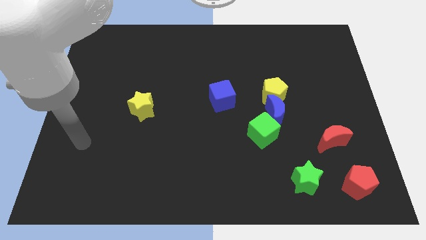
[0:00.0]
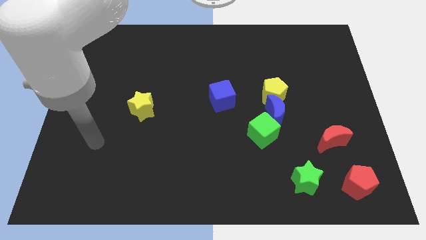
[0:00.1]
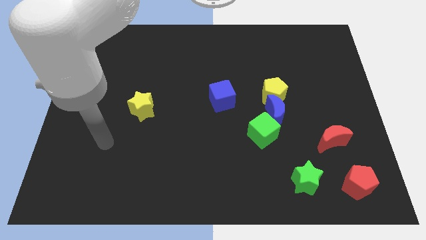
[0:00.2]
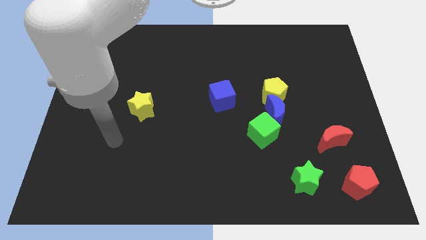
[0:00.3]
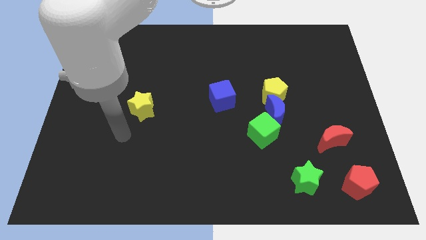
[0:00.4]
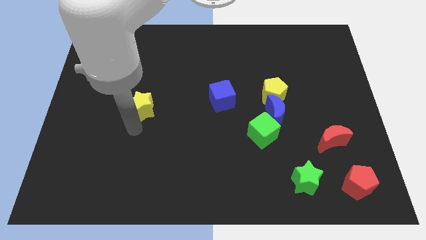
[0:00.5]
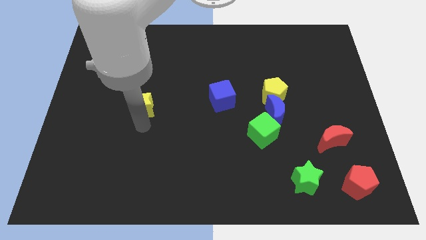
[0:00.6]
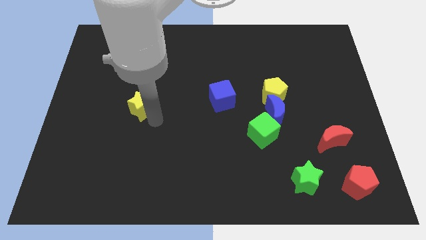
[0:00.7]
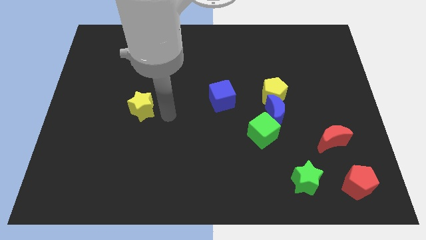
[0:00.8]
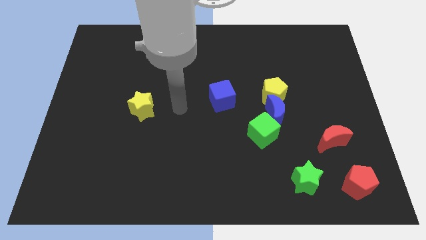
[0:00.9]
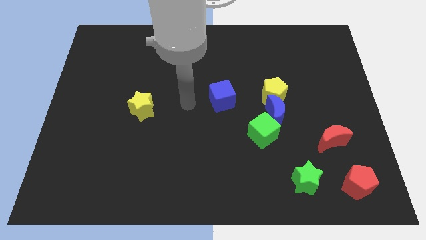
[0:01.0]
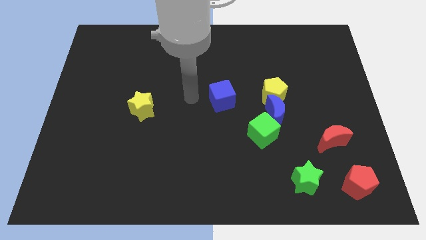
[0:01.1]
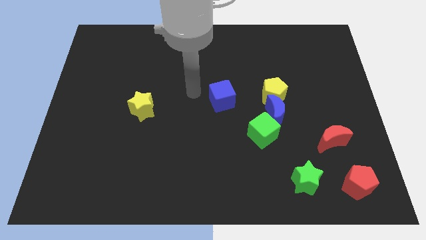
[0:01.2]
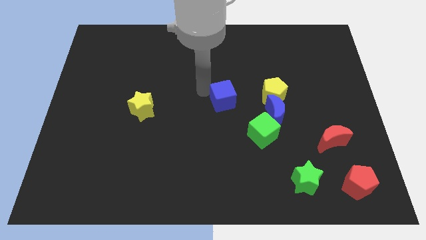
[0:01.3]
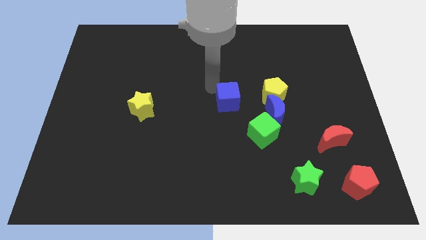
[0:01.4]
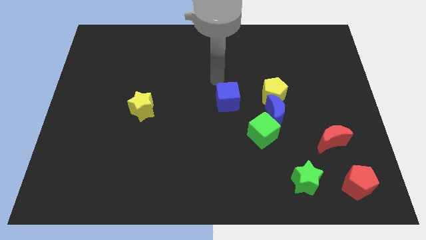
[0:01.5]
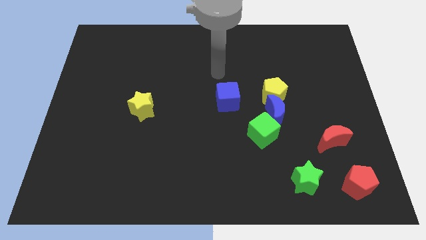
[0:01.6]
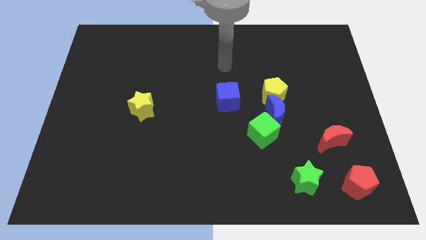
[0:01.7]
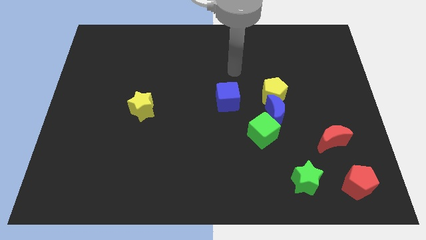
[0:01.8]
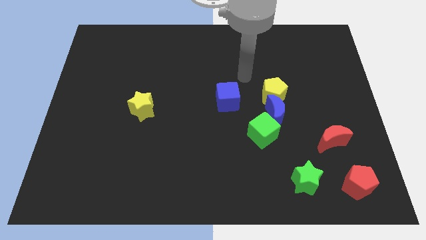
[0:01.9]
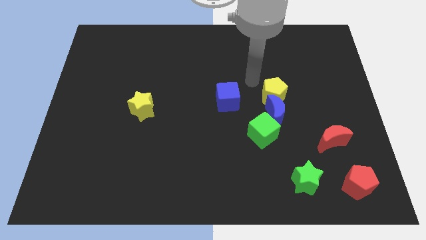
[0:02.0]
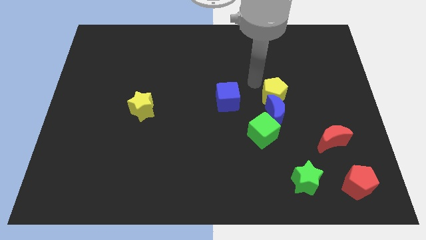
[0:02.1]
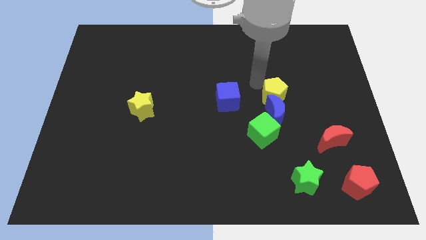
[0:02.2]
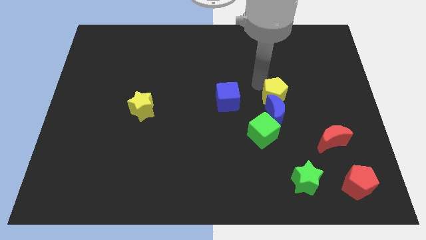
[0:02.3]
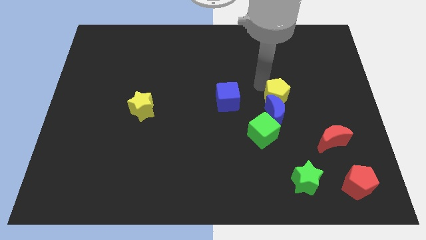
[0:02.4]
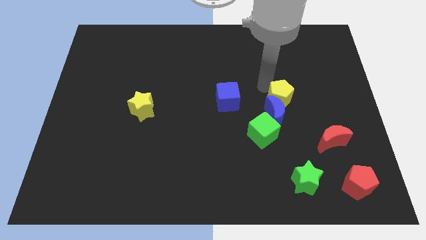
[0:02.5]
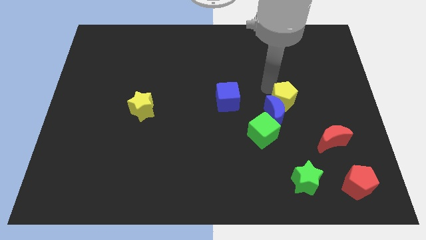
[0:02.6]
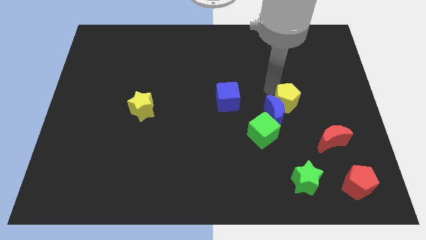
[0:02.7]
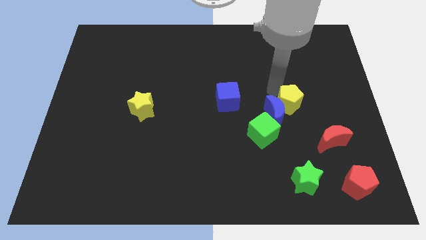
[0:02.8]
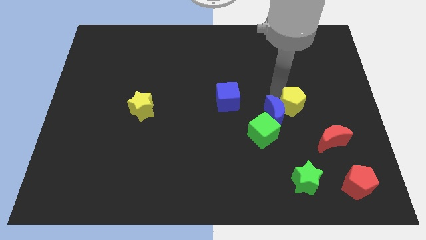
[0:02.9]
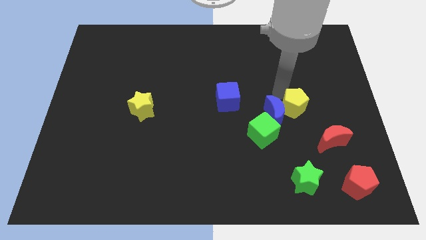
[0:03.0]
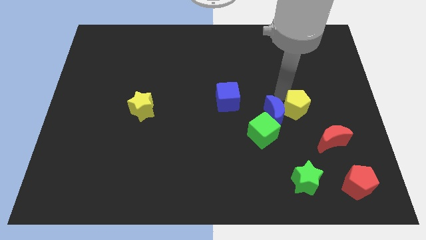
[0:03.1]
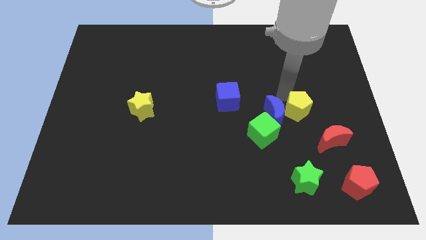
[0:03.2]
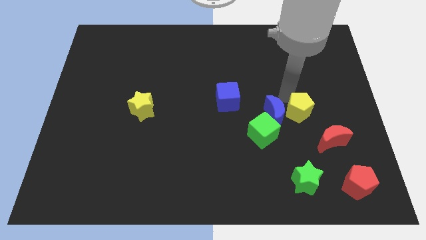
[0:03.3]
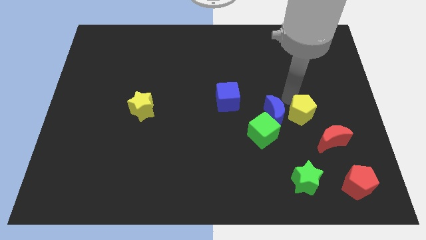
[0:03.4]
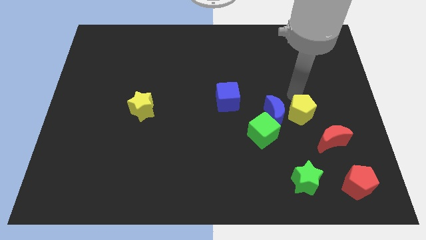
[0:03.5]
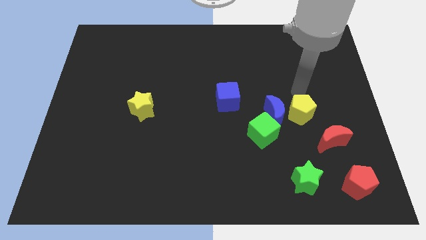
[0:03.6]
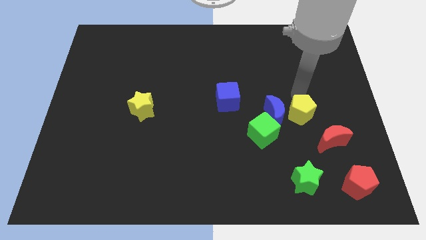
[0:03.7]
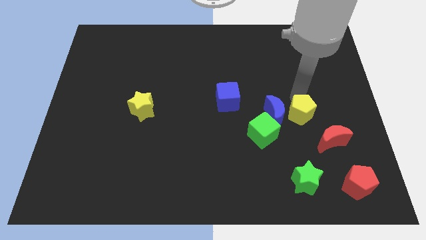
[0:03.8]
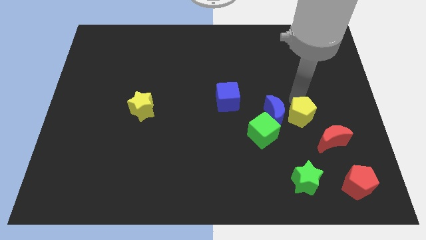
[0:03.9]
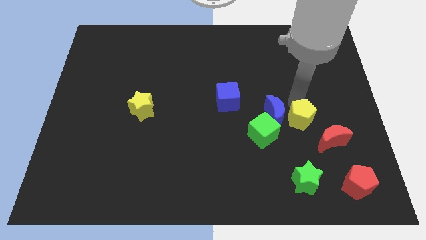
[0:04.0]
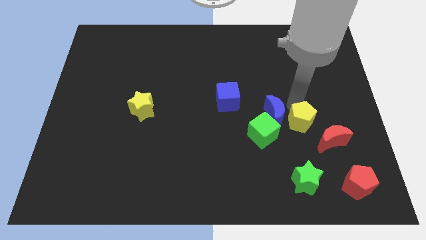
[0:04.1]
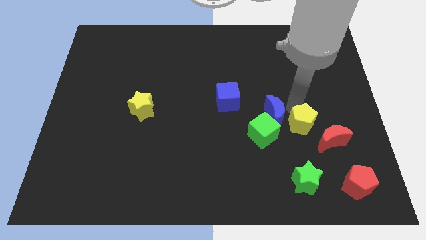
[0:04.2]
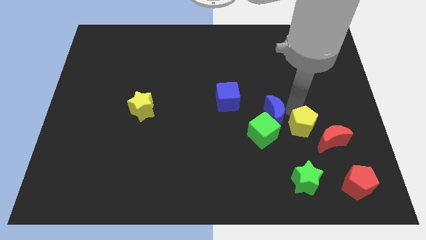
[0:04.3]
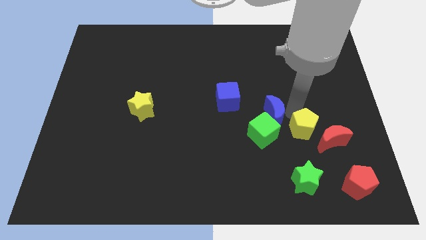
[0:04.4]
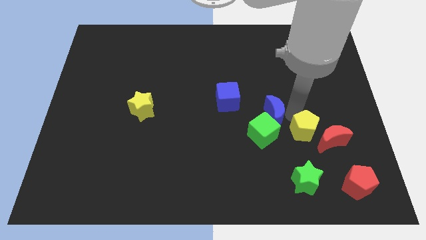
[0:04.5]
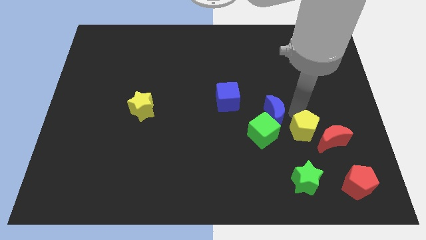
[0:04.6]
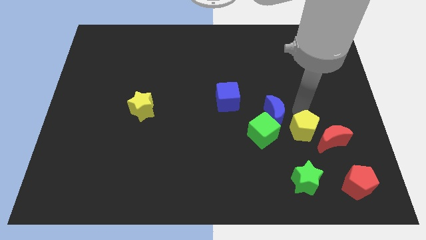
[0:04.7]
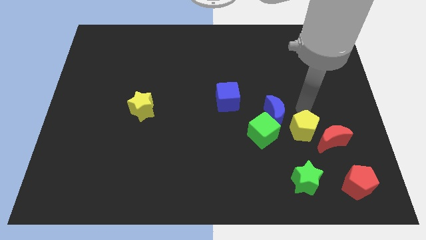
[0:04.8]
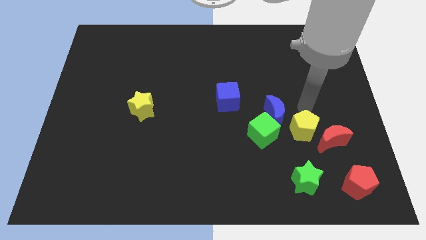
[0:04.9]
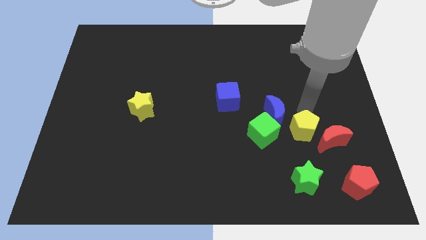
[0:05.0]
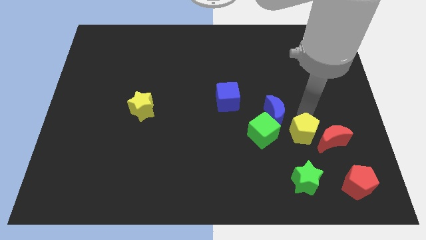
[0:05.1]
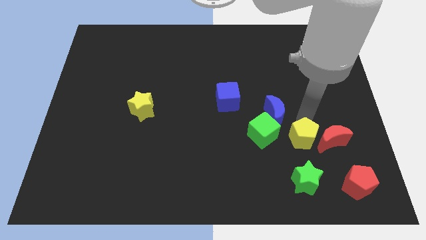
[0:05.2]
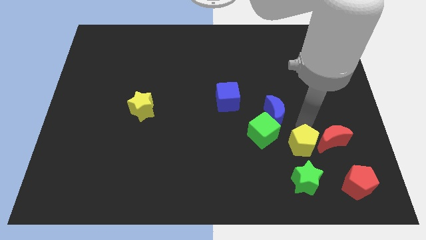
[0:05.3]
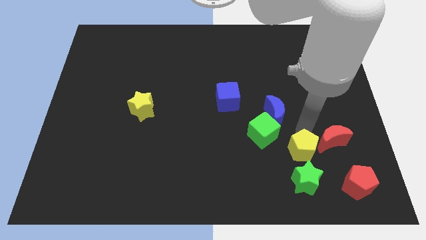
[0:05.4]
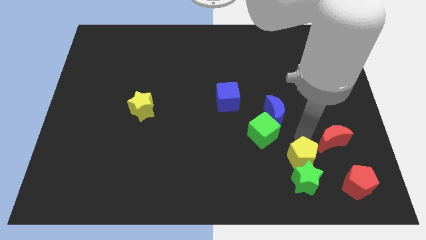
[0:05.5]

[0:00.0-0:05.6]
put the yellow pentagon close to the green star

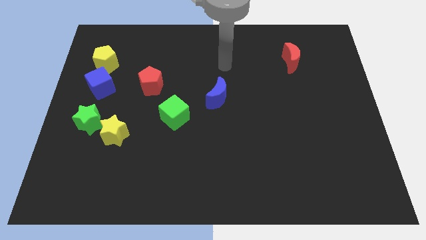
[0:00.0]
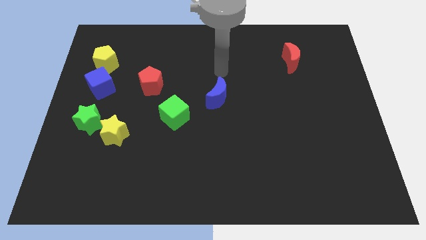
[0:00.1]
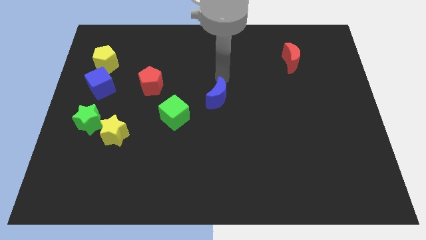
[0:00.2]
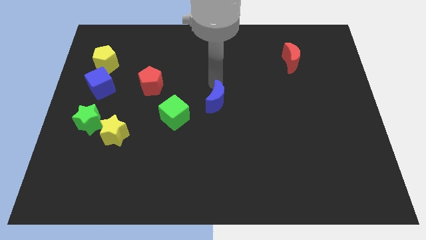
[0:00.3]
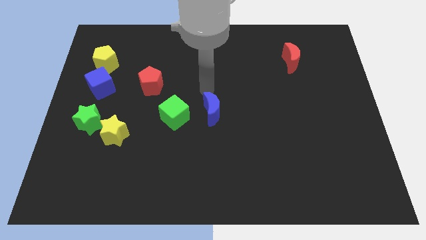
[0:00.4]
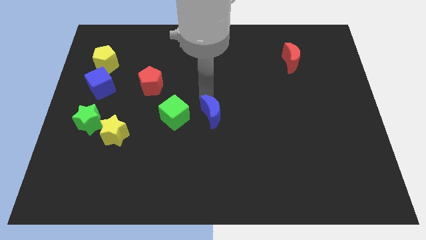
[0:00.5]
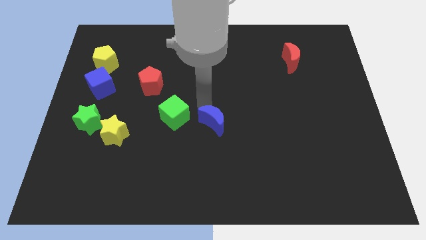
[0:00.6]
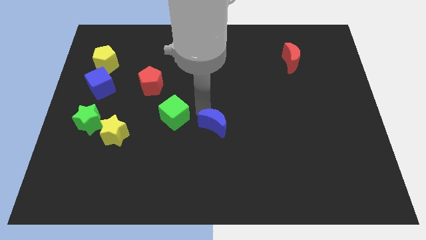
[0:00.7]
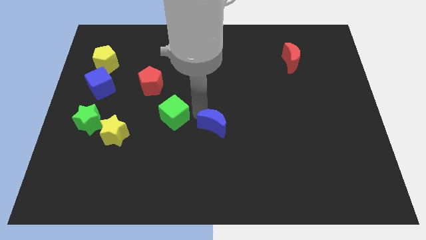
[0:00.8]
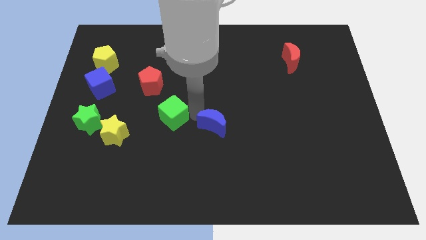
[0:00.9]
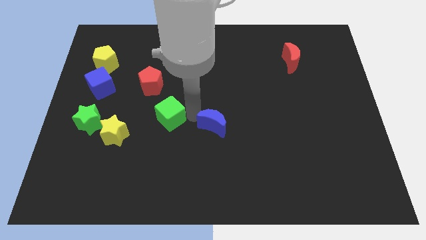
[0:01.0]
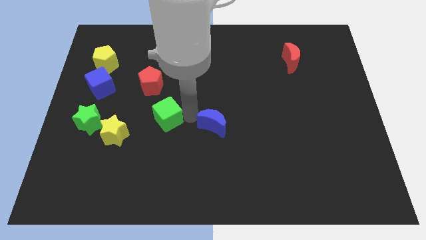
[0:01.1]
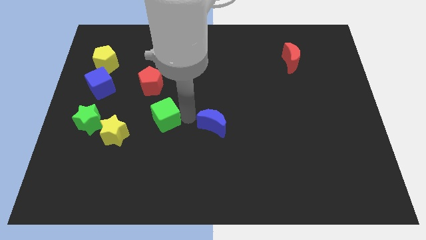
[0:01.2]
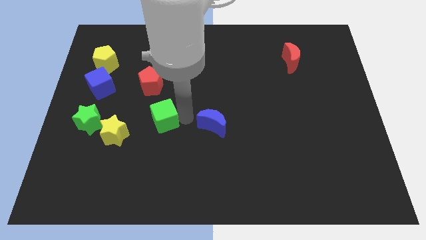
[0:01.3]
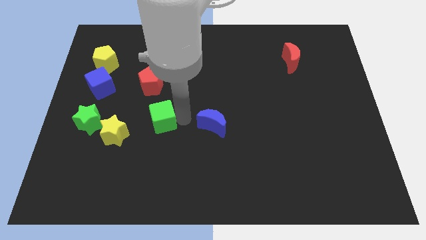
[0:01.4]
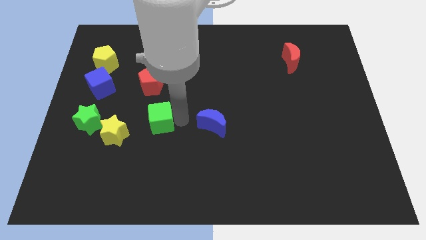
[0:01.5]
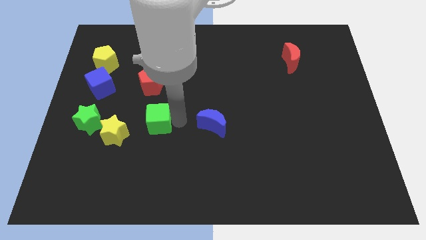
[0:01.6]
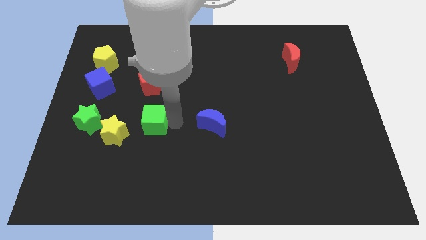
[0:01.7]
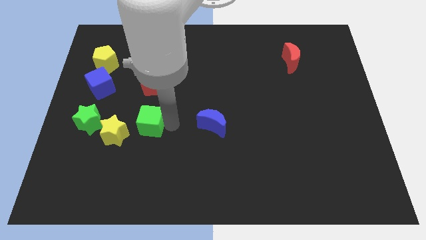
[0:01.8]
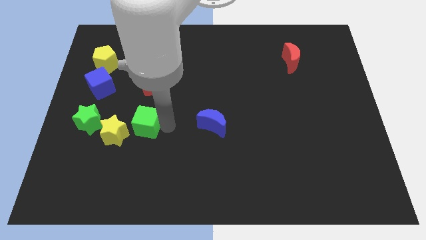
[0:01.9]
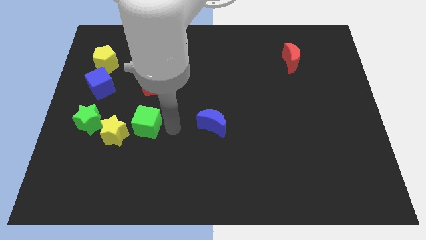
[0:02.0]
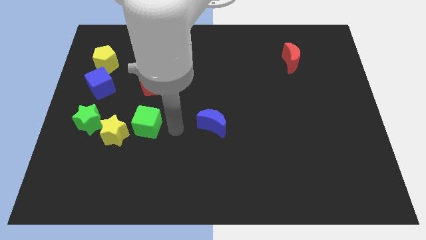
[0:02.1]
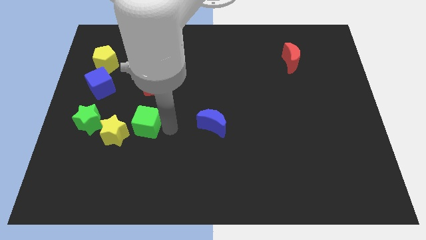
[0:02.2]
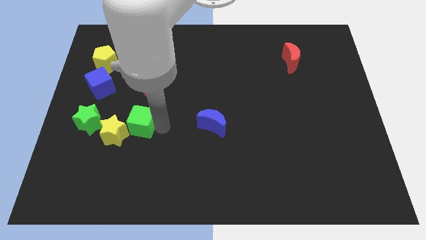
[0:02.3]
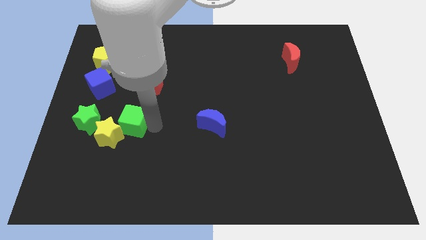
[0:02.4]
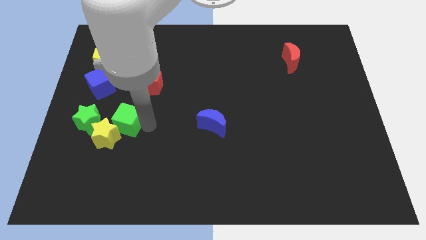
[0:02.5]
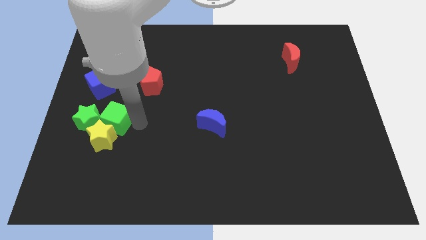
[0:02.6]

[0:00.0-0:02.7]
push the green cube to the green star
